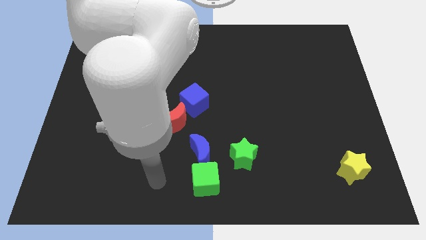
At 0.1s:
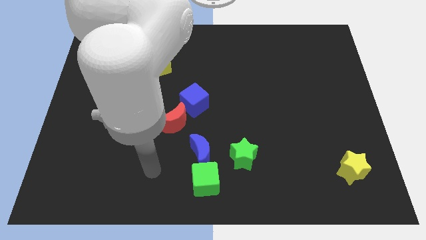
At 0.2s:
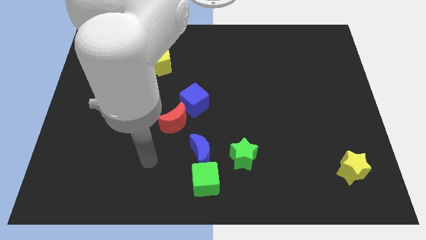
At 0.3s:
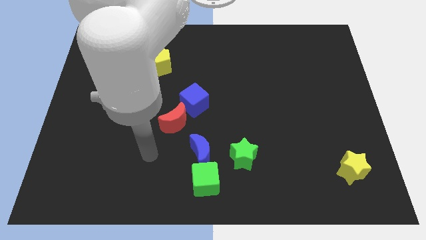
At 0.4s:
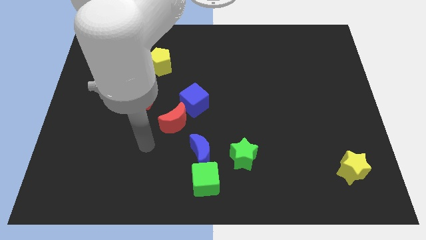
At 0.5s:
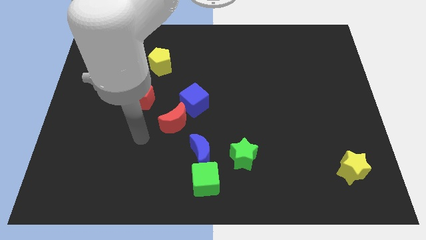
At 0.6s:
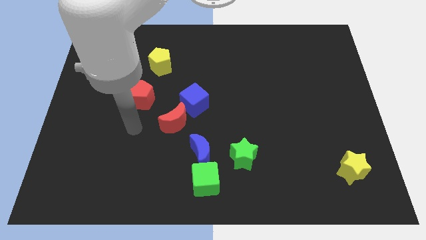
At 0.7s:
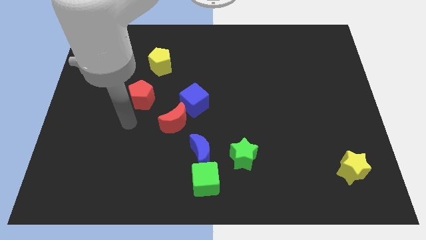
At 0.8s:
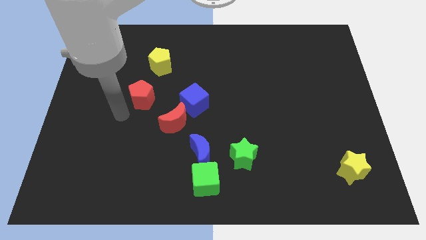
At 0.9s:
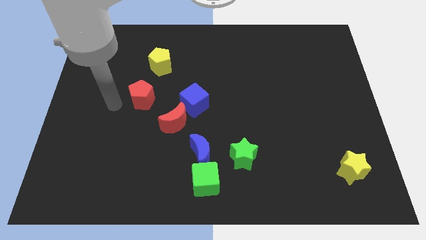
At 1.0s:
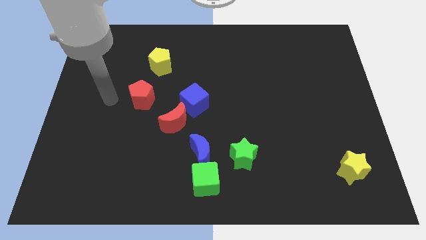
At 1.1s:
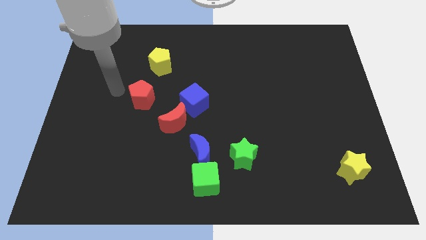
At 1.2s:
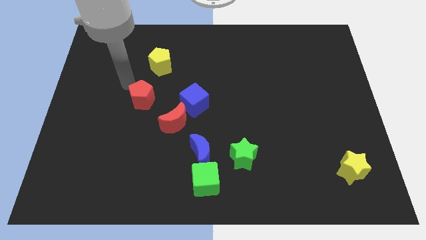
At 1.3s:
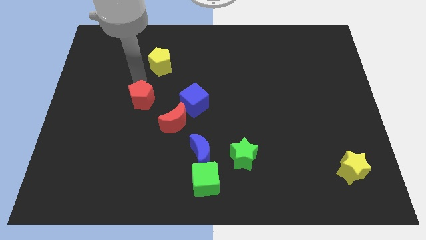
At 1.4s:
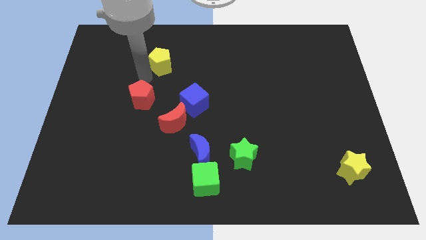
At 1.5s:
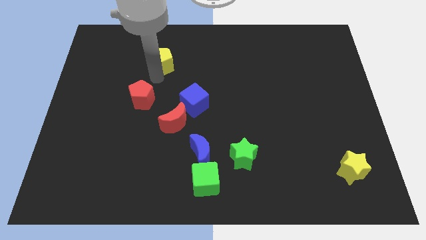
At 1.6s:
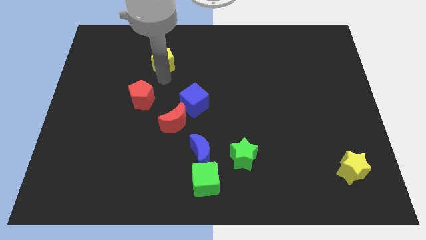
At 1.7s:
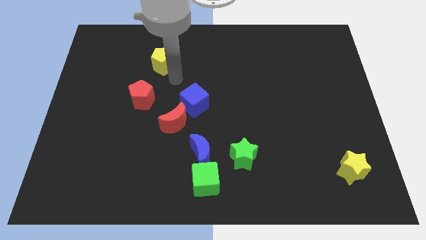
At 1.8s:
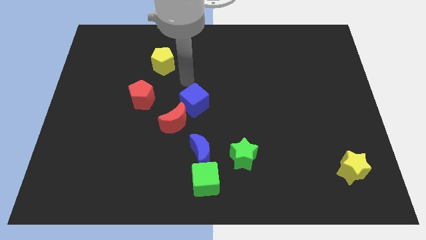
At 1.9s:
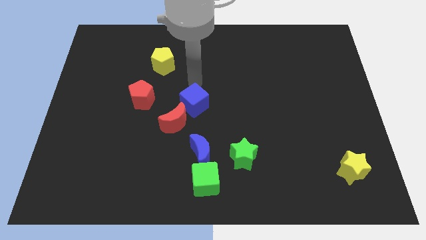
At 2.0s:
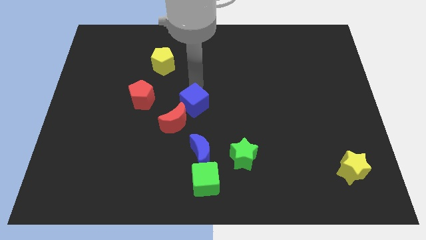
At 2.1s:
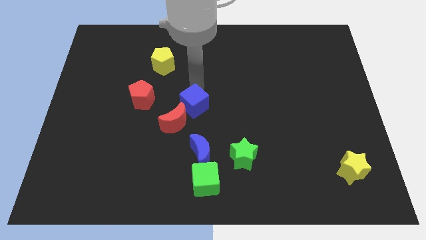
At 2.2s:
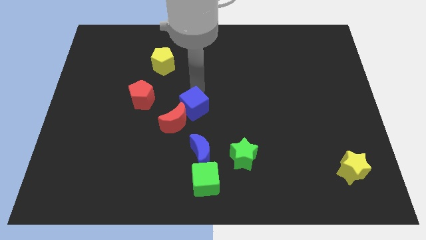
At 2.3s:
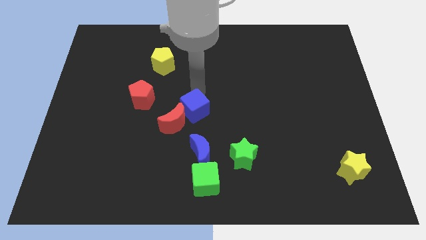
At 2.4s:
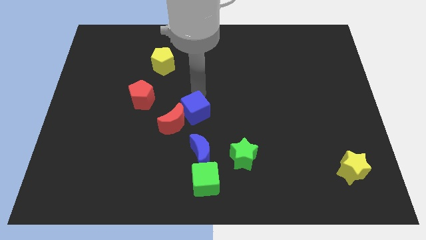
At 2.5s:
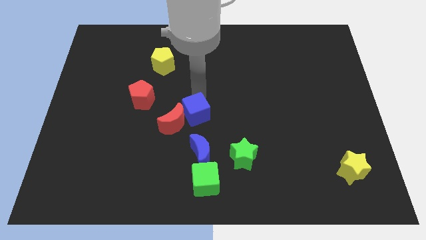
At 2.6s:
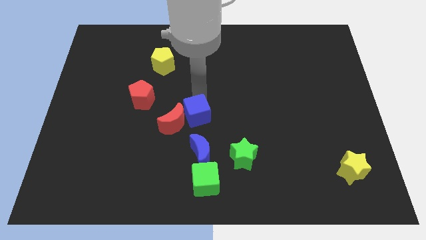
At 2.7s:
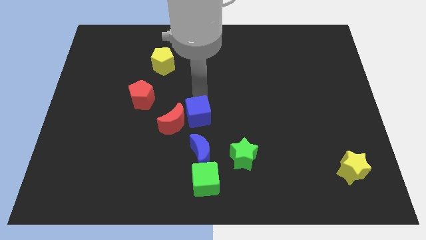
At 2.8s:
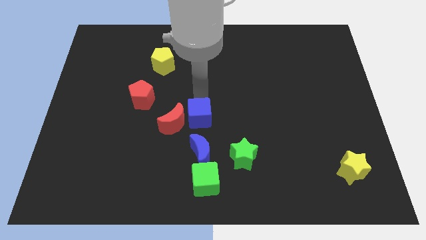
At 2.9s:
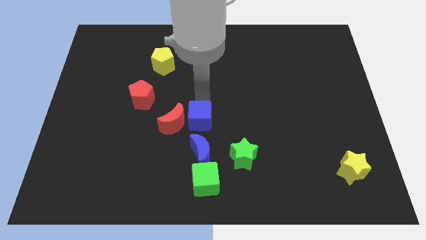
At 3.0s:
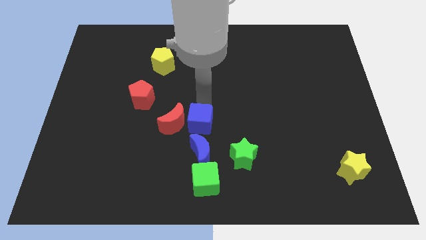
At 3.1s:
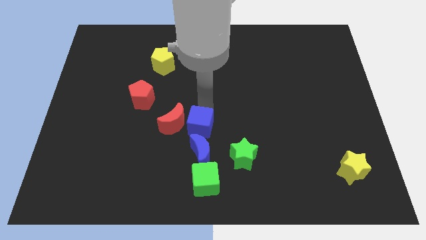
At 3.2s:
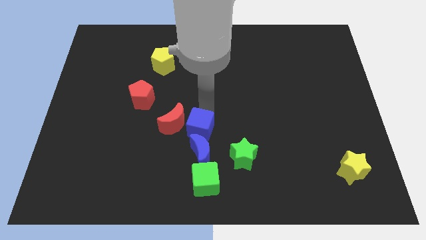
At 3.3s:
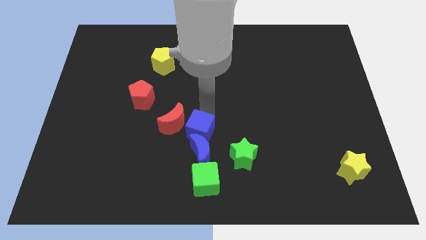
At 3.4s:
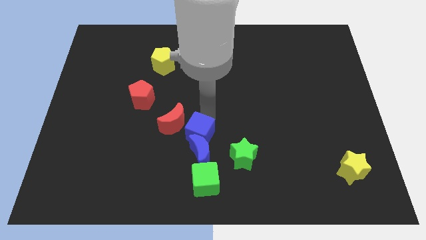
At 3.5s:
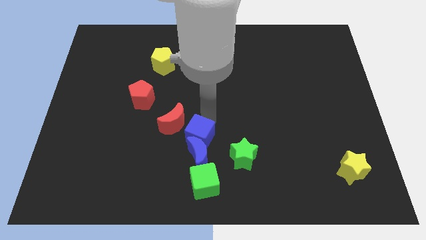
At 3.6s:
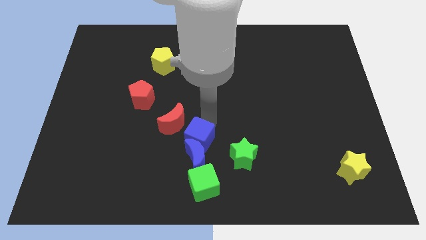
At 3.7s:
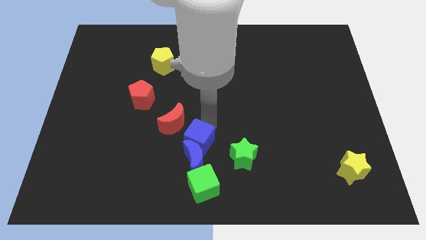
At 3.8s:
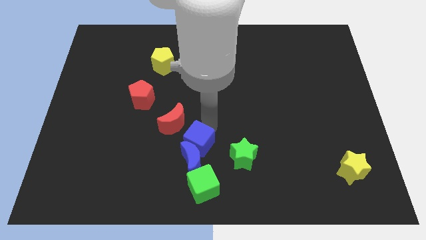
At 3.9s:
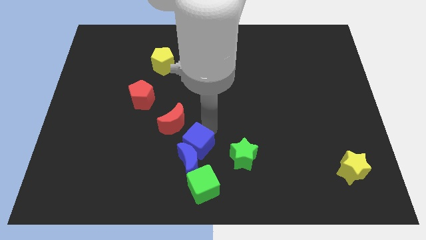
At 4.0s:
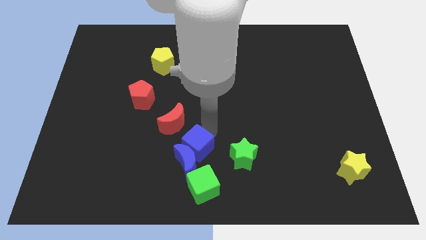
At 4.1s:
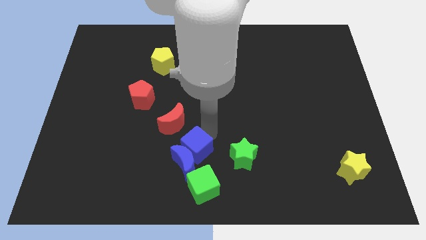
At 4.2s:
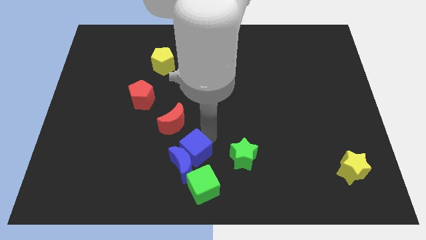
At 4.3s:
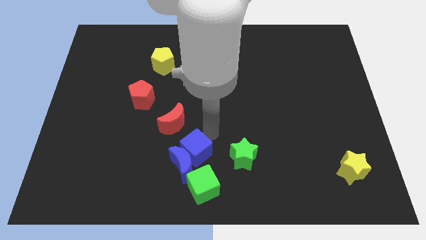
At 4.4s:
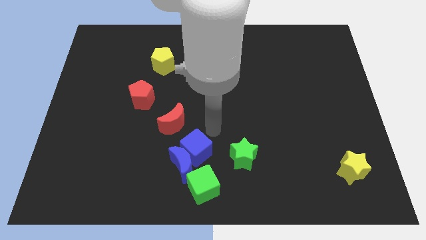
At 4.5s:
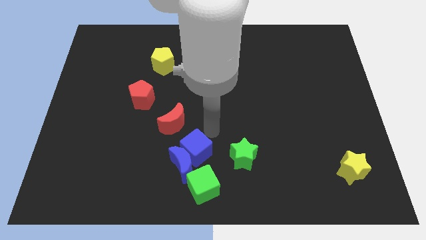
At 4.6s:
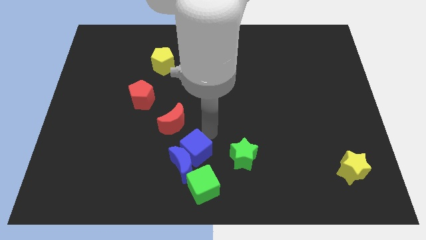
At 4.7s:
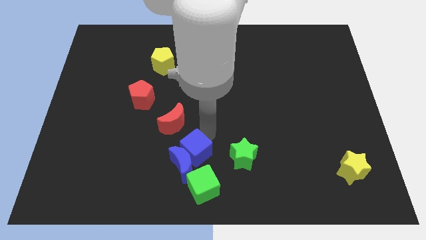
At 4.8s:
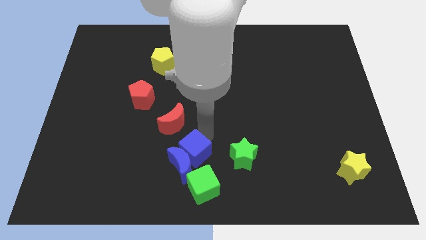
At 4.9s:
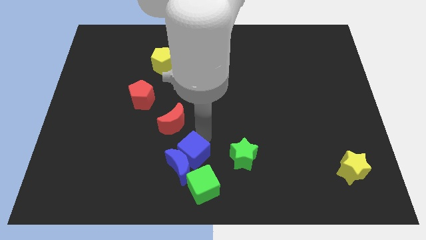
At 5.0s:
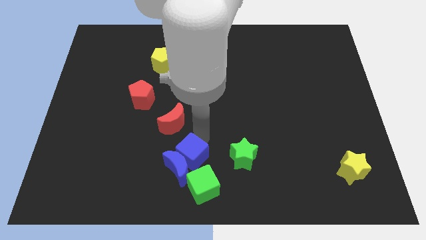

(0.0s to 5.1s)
move the blue cube to the bottom
